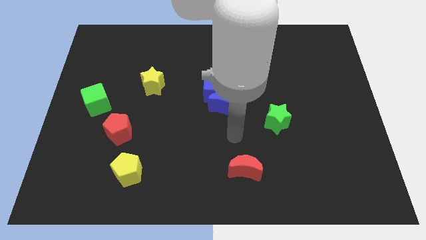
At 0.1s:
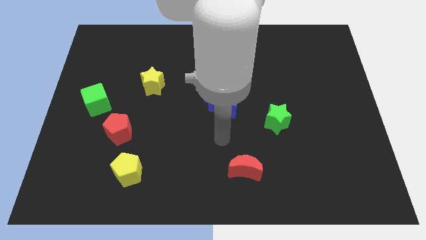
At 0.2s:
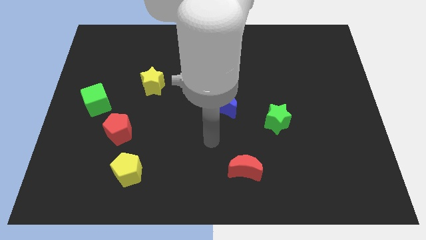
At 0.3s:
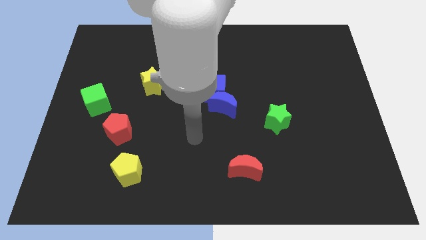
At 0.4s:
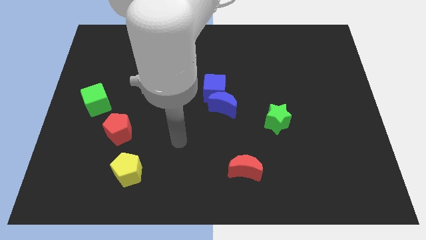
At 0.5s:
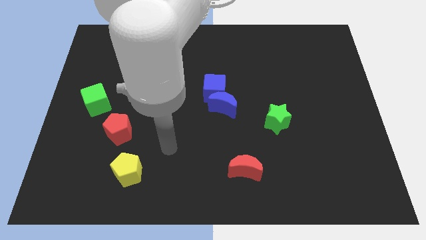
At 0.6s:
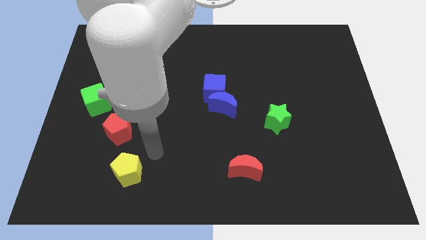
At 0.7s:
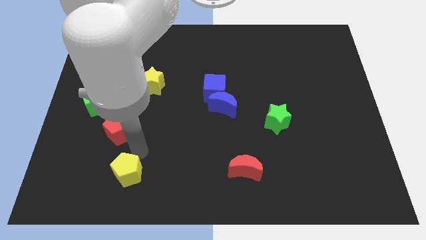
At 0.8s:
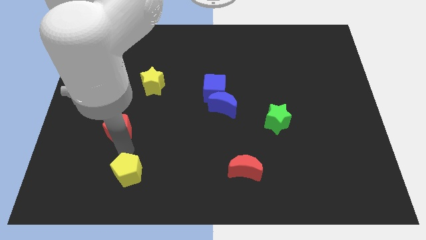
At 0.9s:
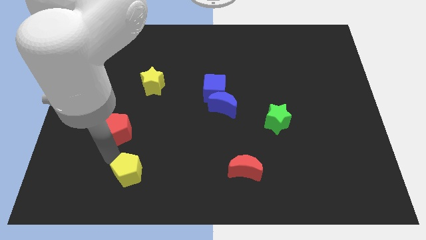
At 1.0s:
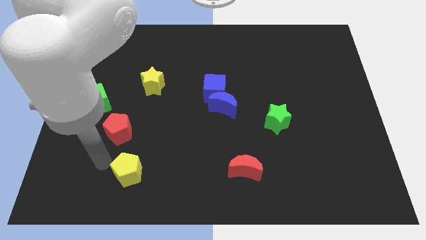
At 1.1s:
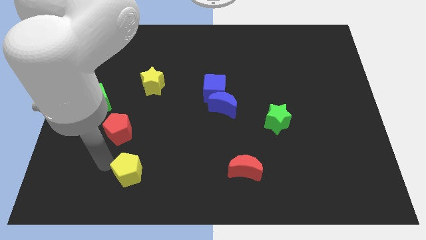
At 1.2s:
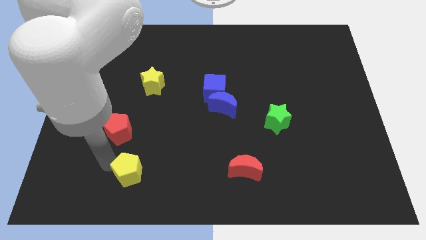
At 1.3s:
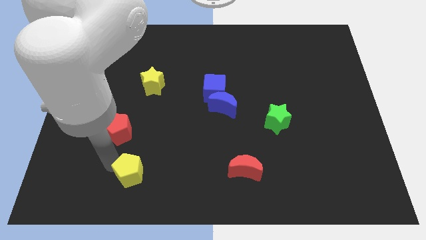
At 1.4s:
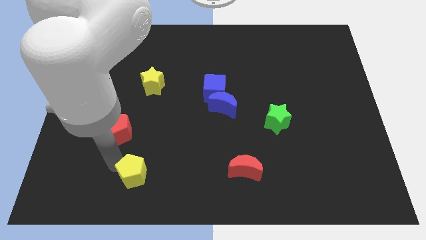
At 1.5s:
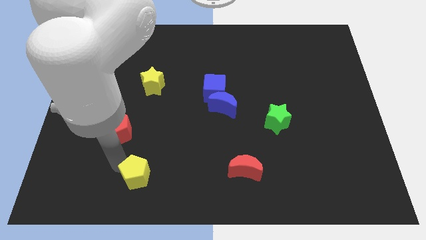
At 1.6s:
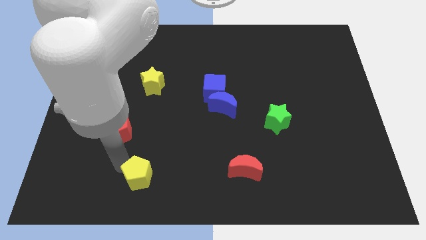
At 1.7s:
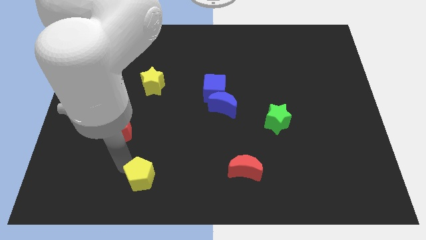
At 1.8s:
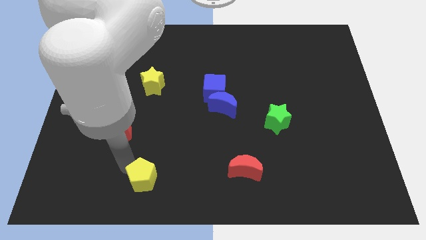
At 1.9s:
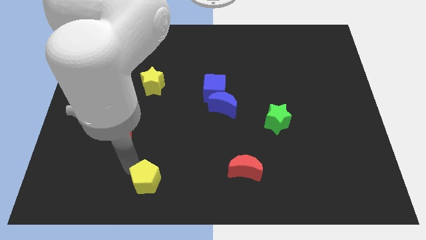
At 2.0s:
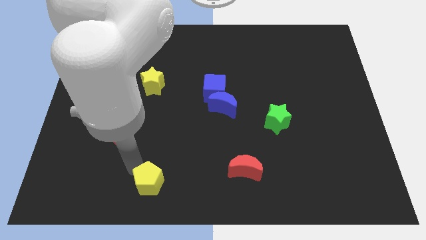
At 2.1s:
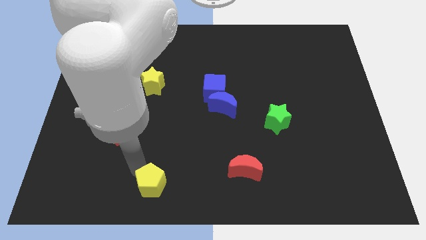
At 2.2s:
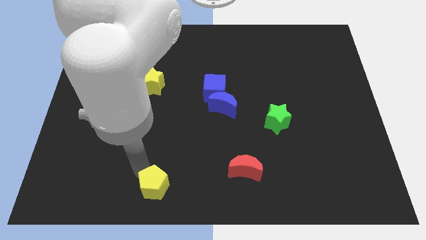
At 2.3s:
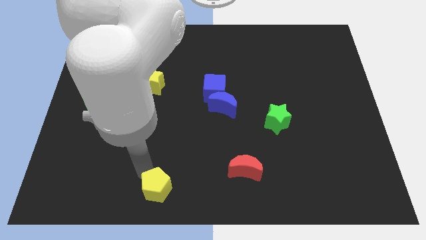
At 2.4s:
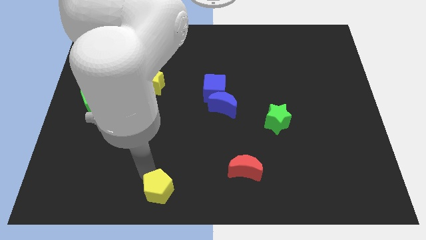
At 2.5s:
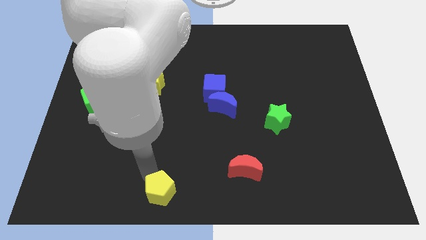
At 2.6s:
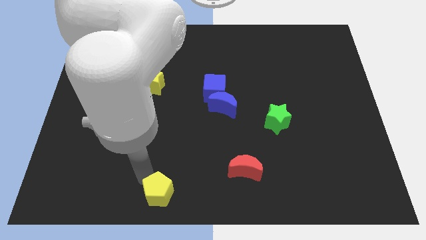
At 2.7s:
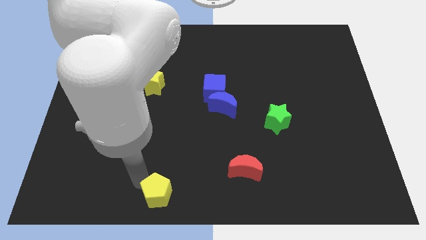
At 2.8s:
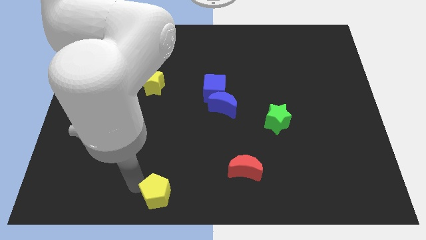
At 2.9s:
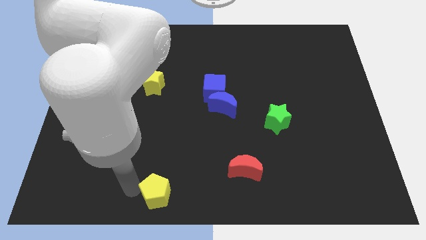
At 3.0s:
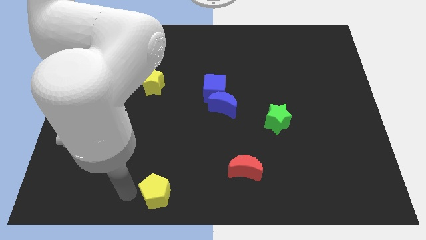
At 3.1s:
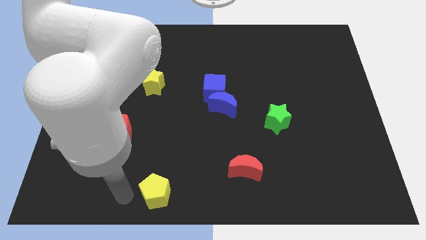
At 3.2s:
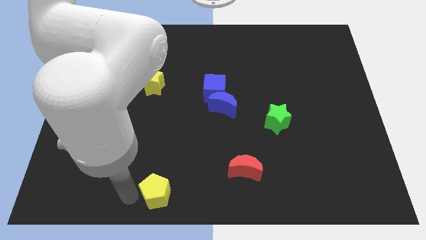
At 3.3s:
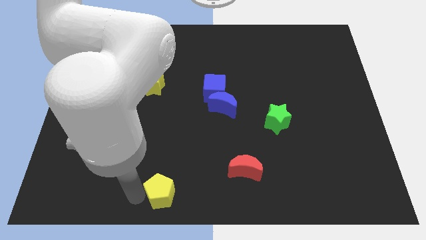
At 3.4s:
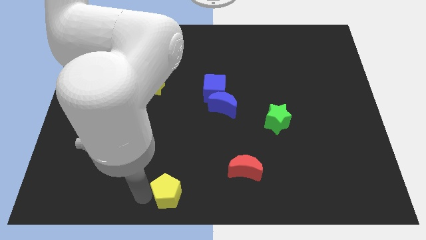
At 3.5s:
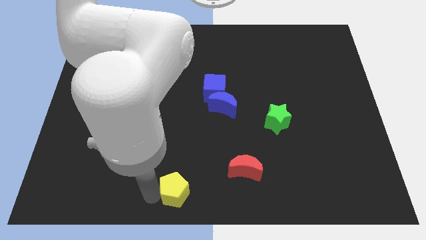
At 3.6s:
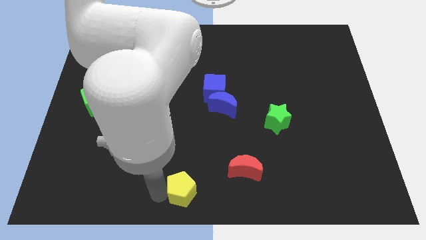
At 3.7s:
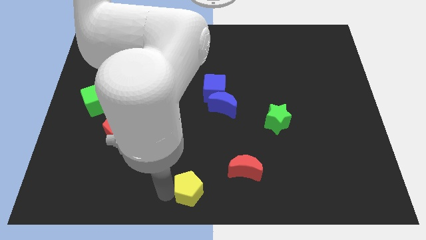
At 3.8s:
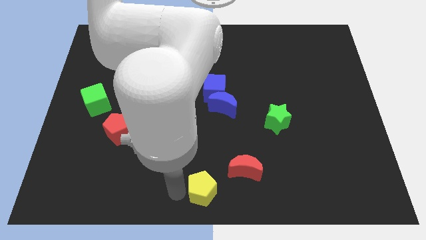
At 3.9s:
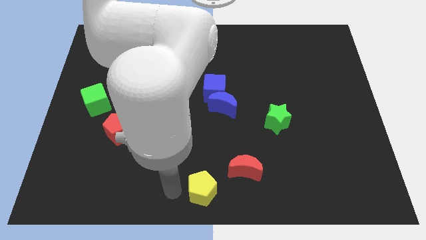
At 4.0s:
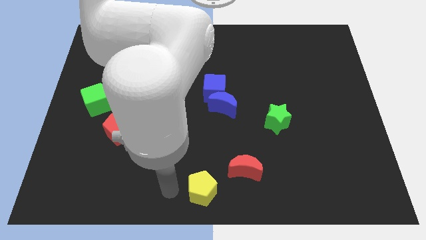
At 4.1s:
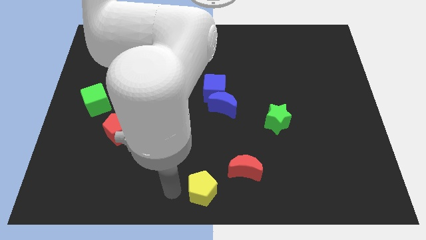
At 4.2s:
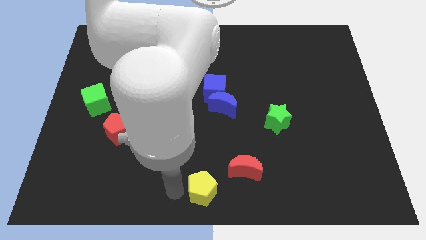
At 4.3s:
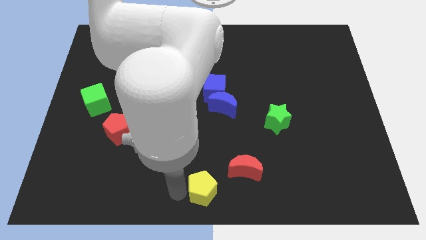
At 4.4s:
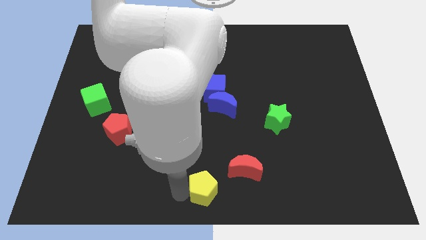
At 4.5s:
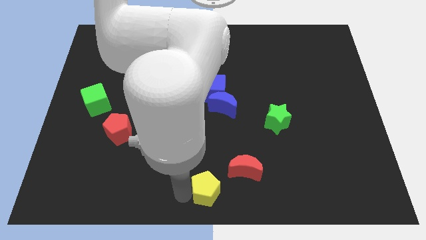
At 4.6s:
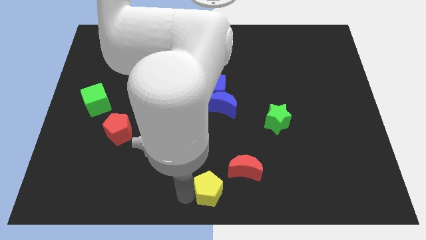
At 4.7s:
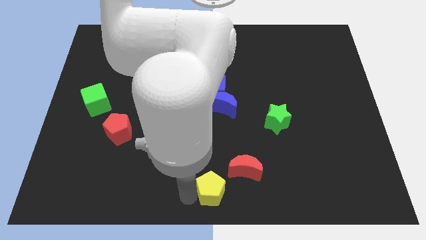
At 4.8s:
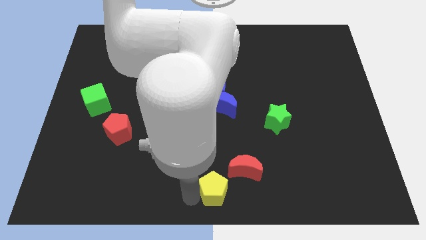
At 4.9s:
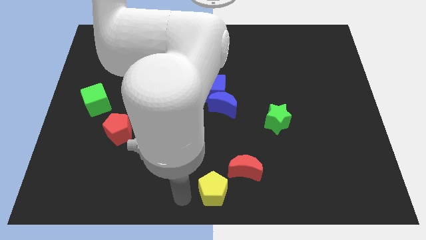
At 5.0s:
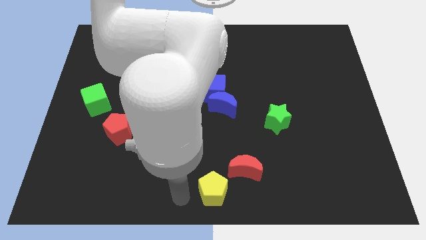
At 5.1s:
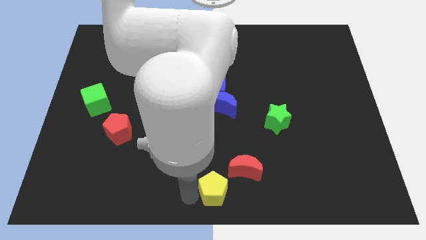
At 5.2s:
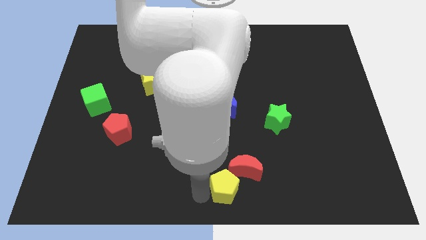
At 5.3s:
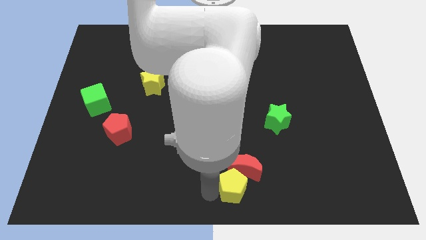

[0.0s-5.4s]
move the yellow pentagon right

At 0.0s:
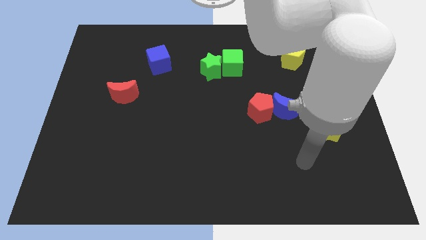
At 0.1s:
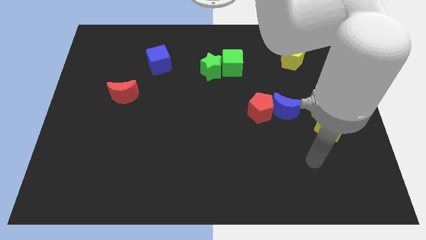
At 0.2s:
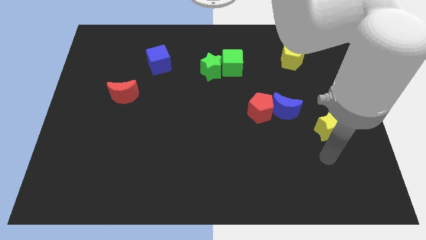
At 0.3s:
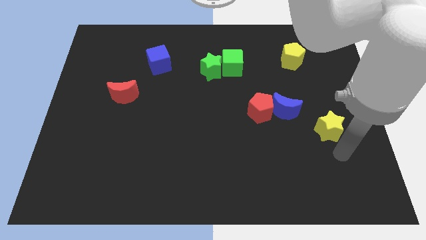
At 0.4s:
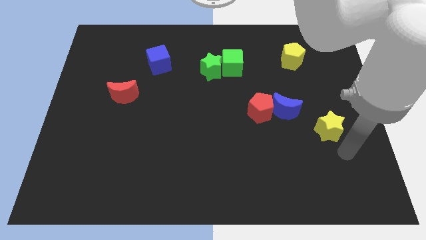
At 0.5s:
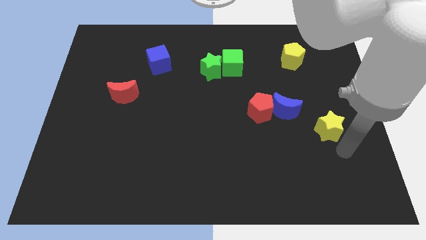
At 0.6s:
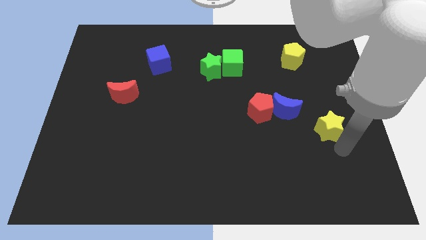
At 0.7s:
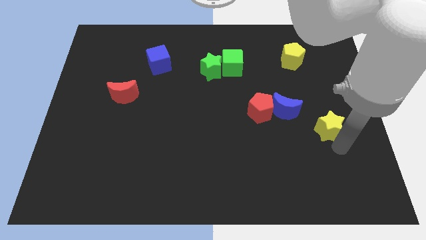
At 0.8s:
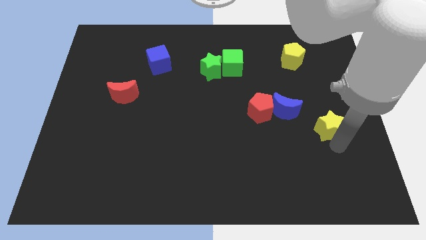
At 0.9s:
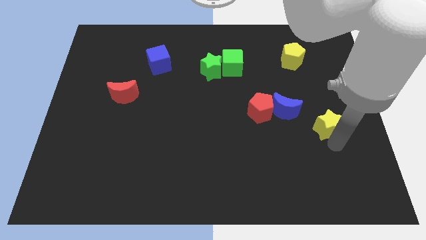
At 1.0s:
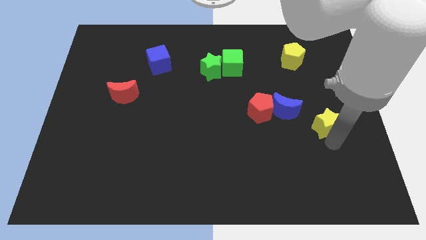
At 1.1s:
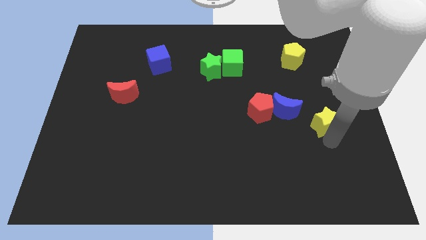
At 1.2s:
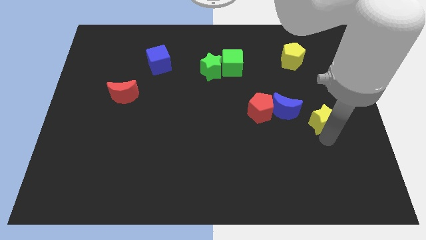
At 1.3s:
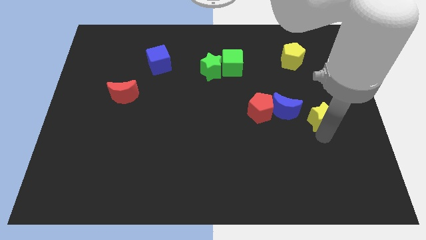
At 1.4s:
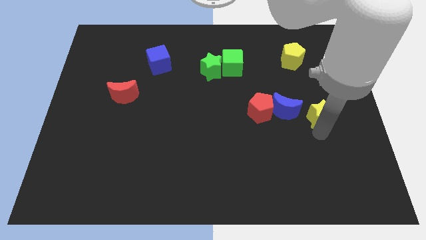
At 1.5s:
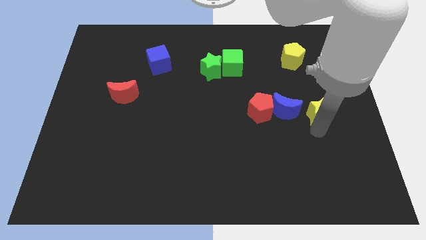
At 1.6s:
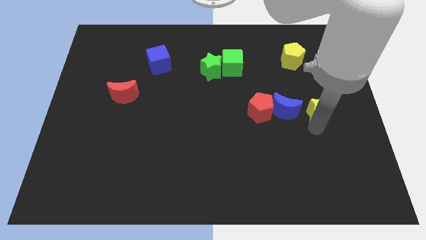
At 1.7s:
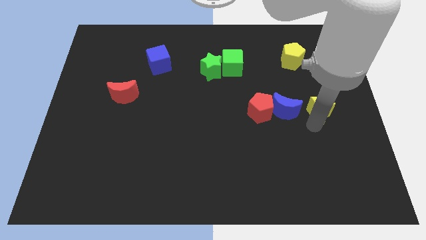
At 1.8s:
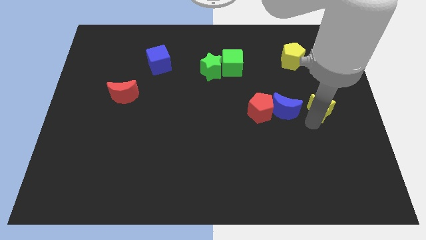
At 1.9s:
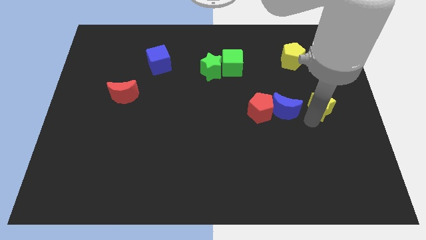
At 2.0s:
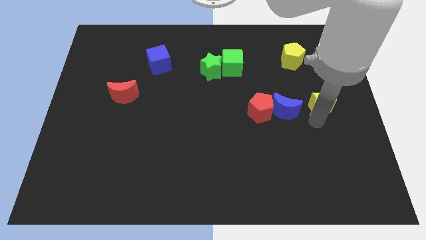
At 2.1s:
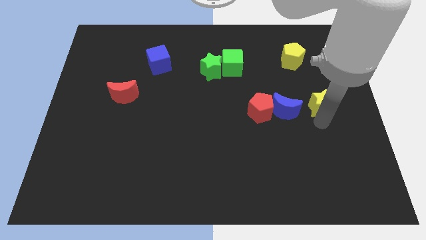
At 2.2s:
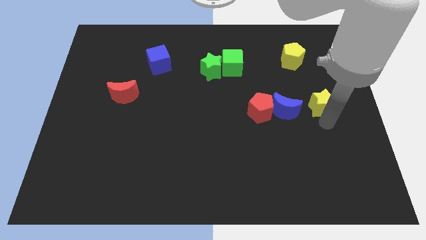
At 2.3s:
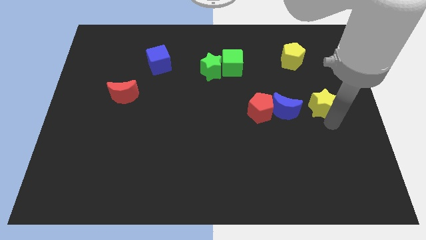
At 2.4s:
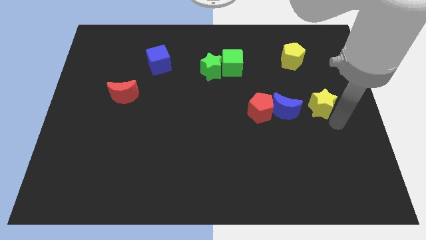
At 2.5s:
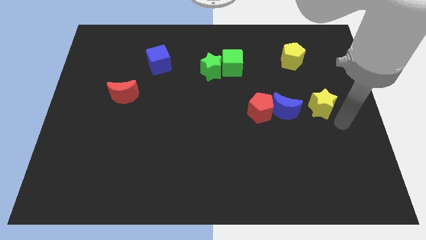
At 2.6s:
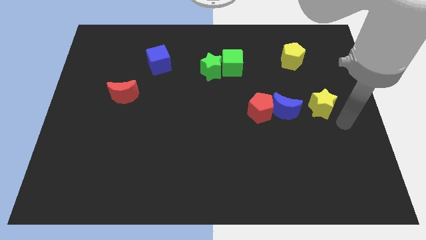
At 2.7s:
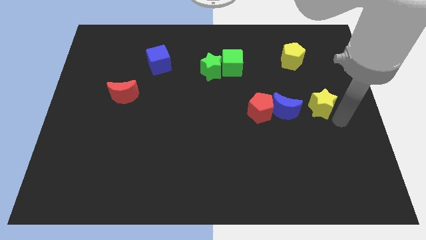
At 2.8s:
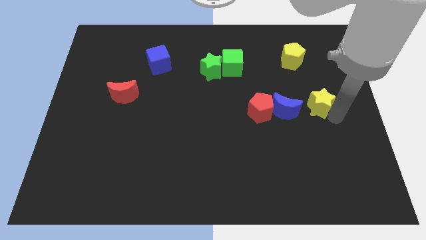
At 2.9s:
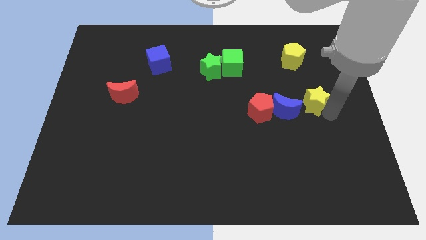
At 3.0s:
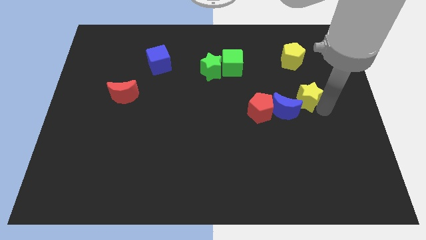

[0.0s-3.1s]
push the yellow star somewhat diagonally upwards and left
